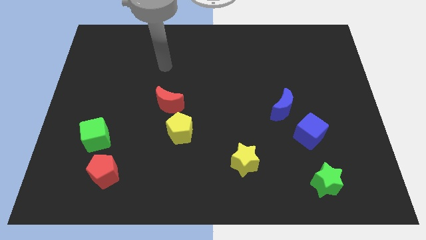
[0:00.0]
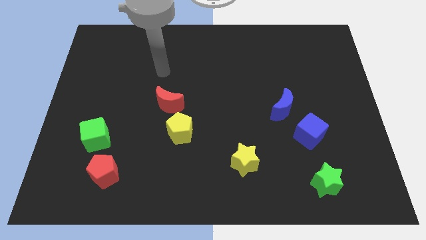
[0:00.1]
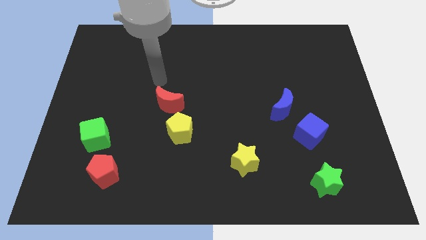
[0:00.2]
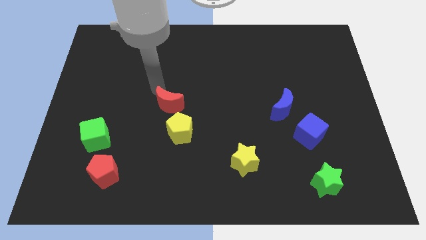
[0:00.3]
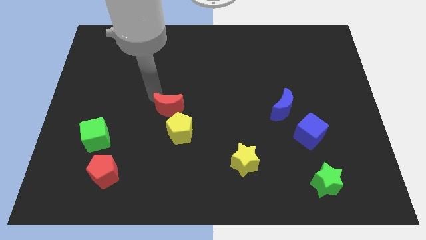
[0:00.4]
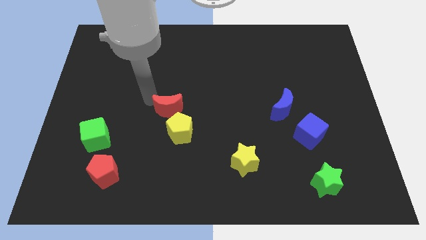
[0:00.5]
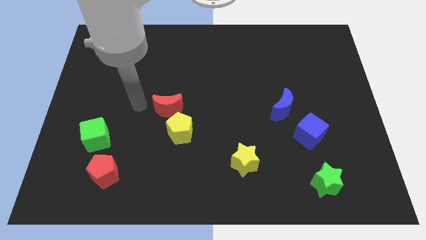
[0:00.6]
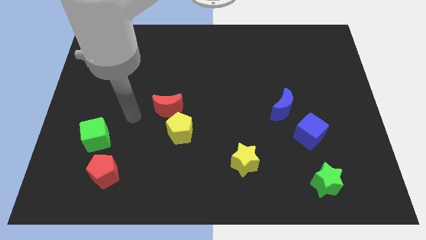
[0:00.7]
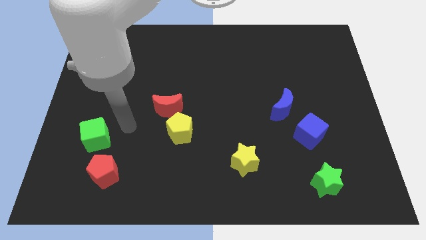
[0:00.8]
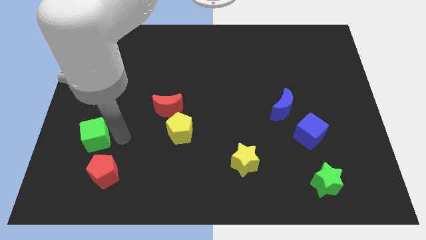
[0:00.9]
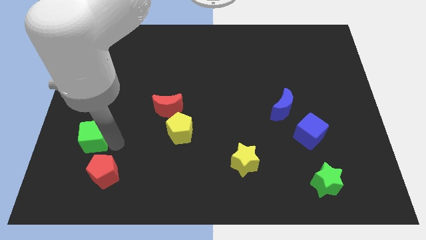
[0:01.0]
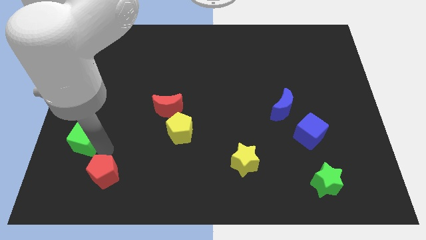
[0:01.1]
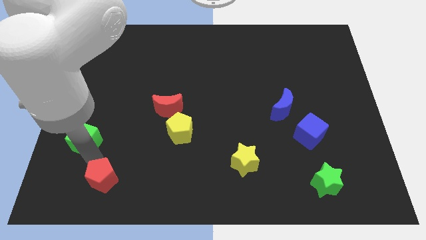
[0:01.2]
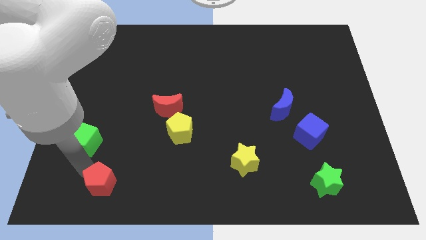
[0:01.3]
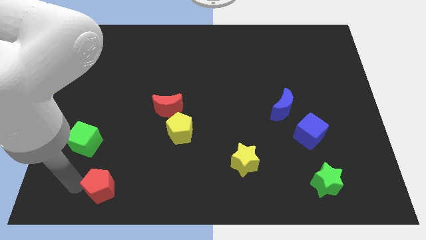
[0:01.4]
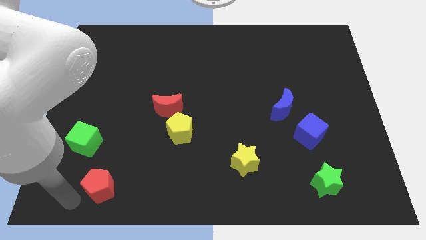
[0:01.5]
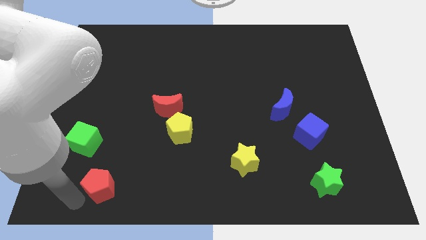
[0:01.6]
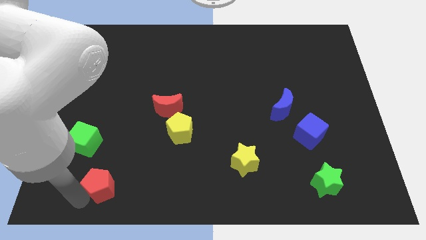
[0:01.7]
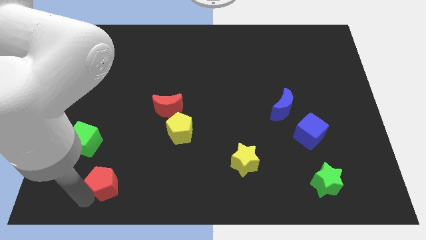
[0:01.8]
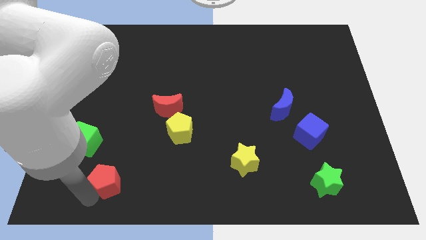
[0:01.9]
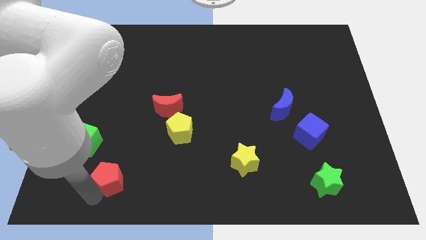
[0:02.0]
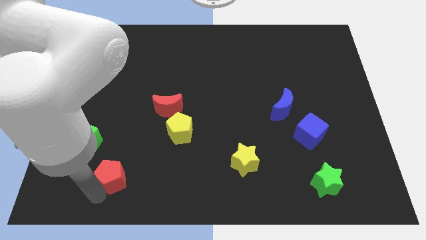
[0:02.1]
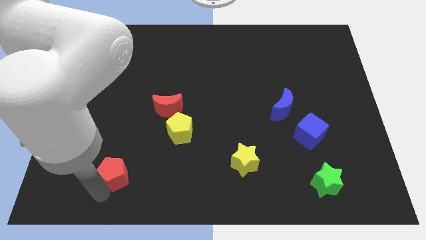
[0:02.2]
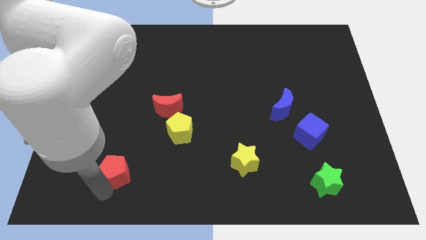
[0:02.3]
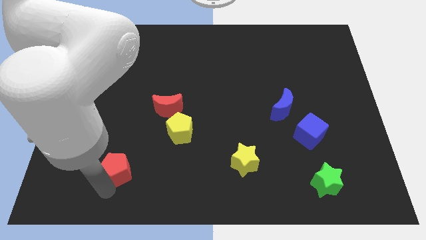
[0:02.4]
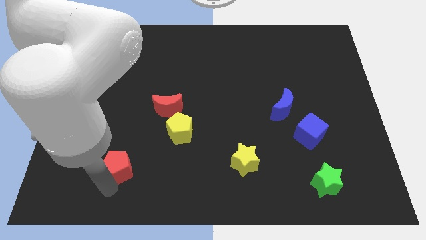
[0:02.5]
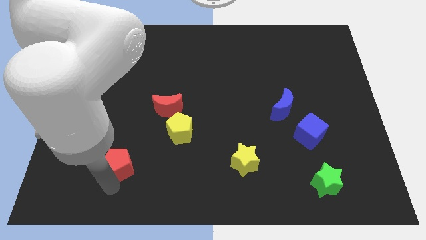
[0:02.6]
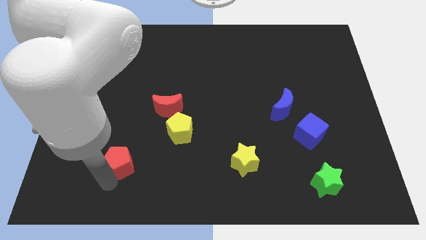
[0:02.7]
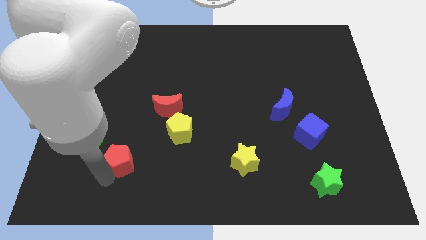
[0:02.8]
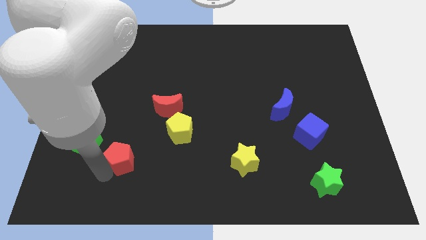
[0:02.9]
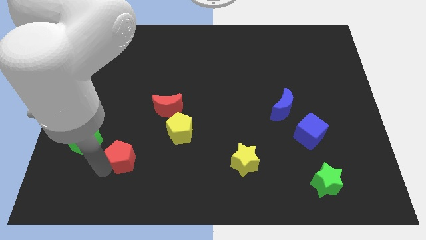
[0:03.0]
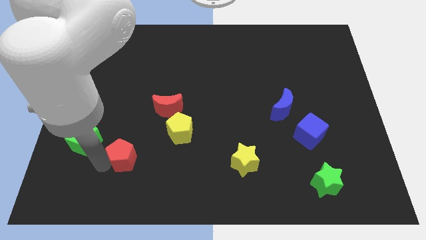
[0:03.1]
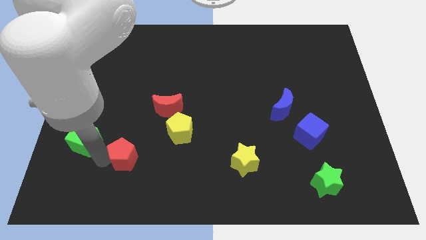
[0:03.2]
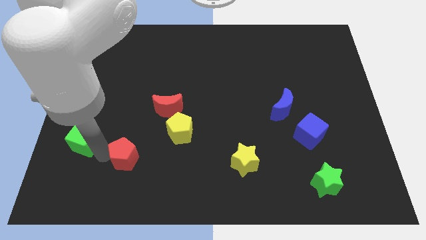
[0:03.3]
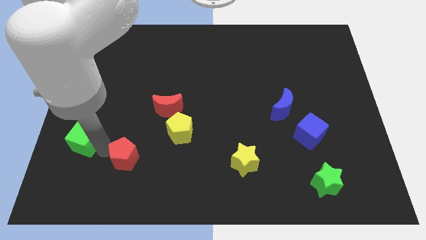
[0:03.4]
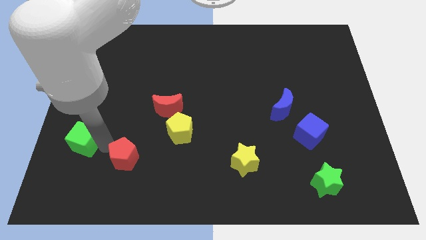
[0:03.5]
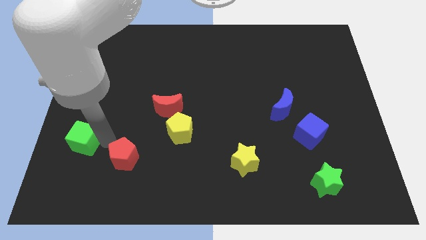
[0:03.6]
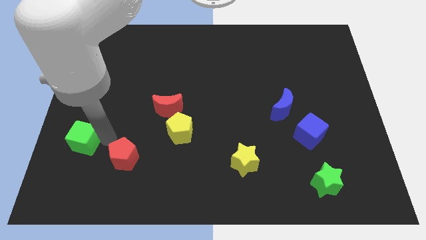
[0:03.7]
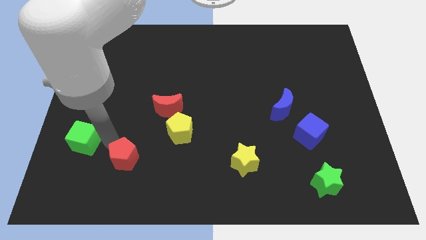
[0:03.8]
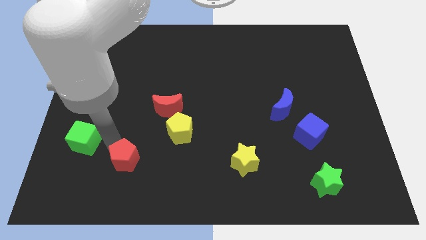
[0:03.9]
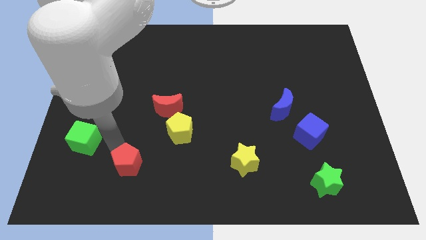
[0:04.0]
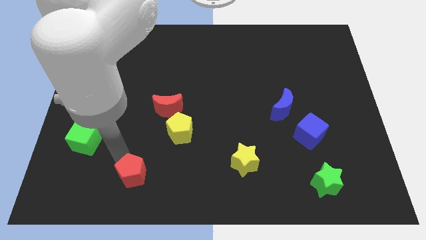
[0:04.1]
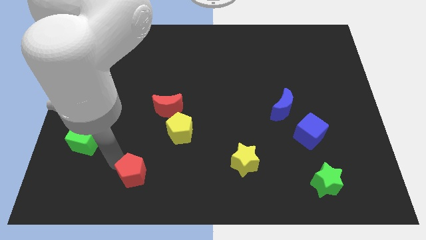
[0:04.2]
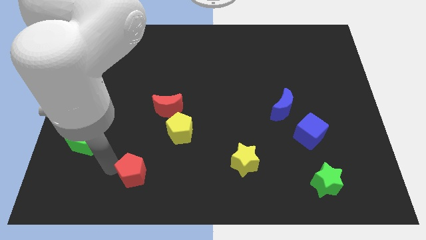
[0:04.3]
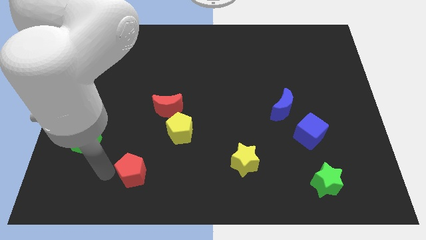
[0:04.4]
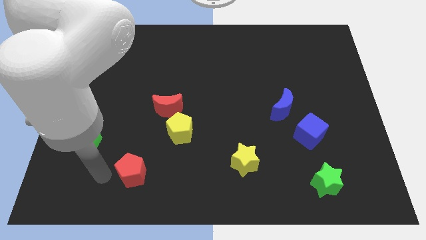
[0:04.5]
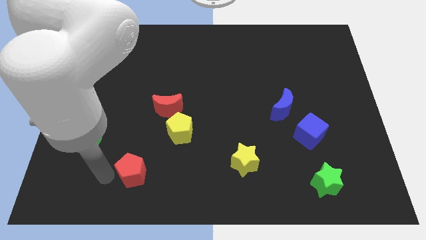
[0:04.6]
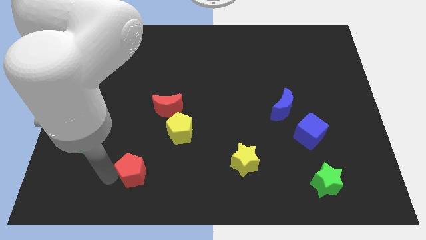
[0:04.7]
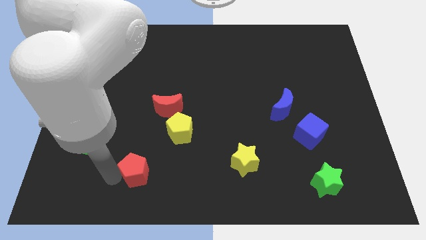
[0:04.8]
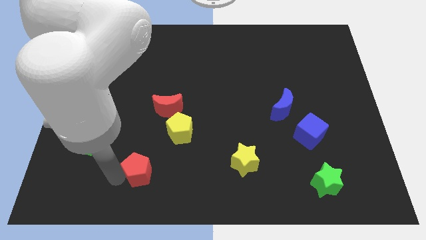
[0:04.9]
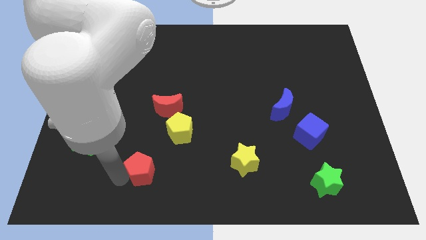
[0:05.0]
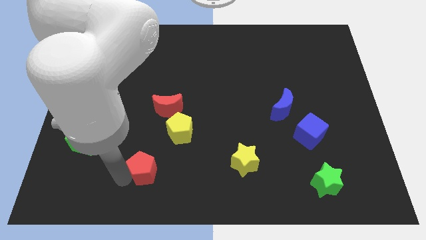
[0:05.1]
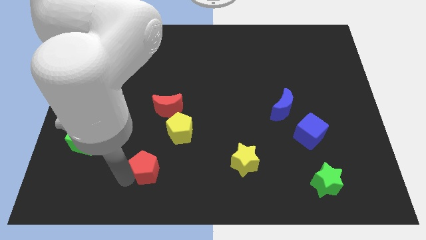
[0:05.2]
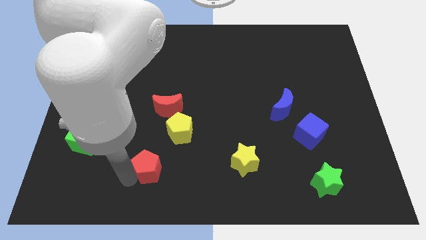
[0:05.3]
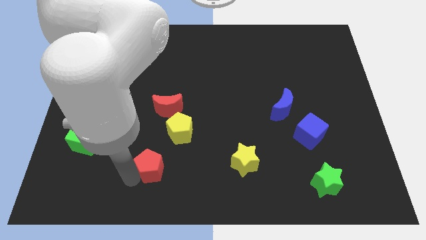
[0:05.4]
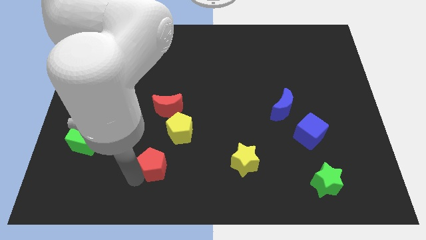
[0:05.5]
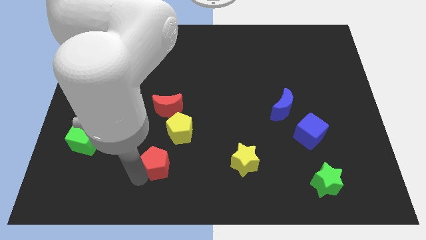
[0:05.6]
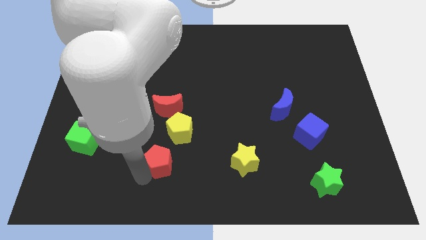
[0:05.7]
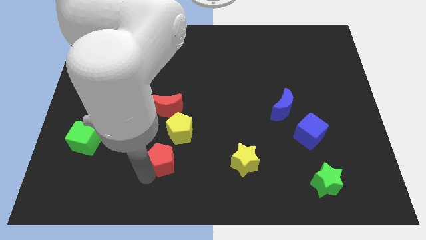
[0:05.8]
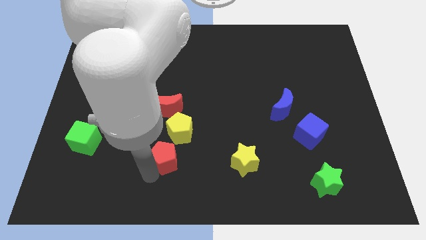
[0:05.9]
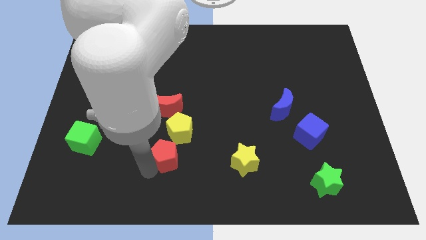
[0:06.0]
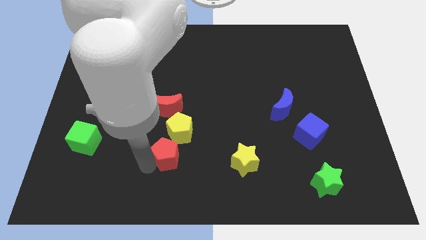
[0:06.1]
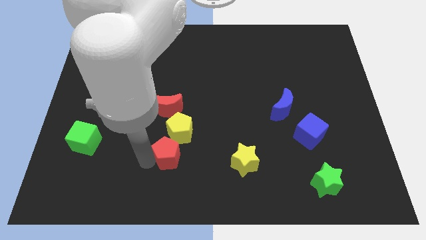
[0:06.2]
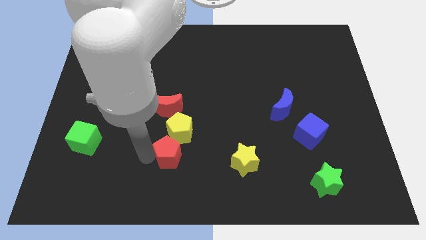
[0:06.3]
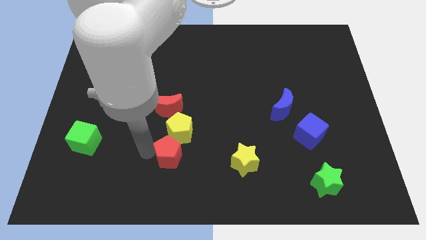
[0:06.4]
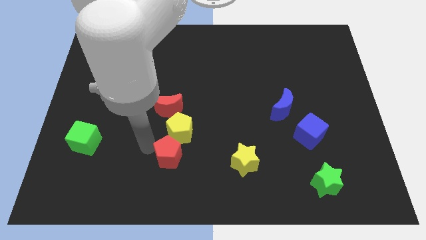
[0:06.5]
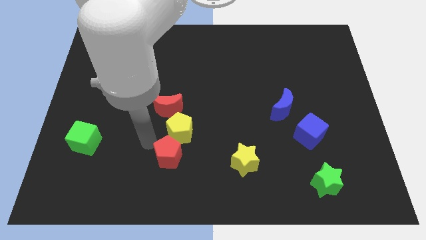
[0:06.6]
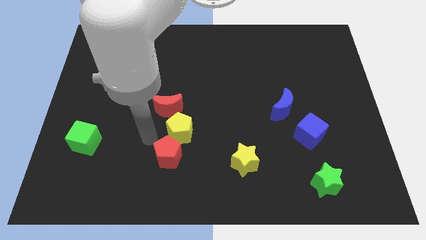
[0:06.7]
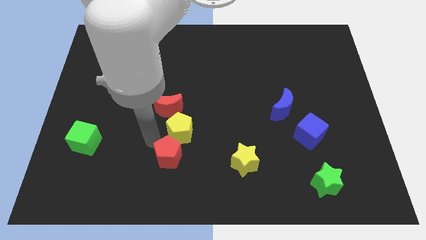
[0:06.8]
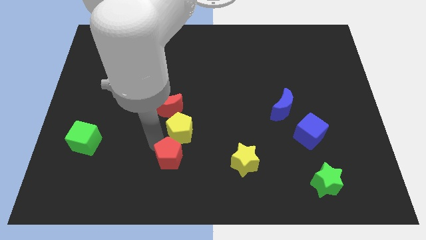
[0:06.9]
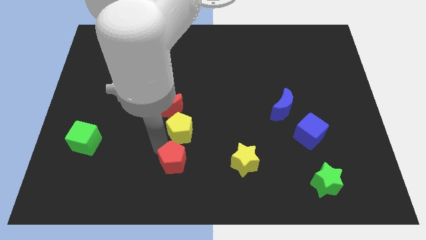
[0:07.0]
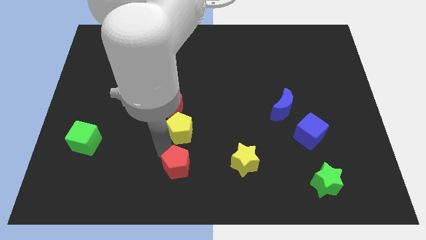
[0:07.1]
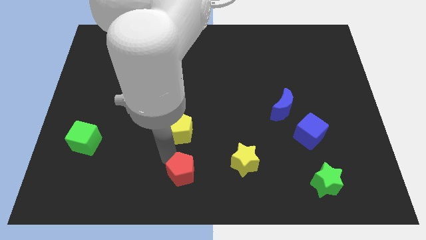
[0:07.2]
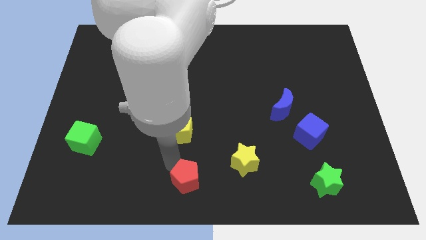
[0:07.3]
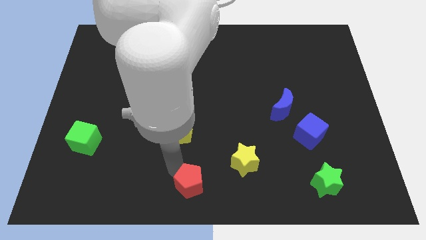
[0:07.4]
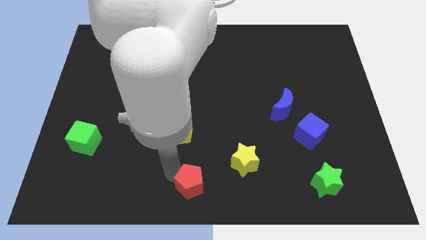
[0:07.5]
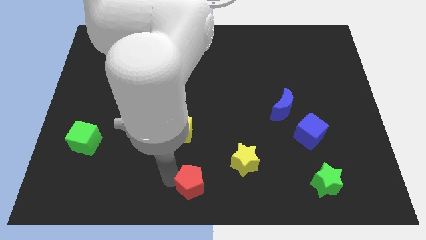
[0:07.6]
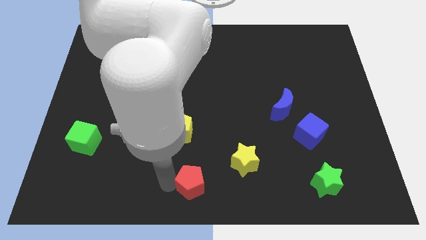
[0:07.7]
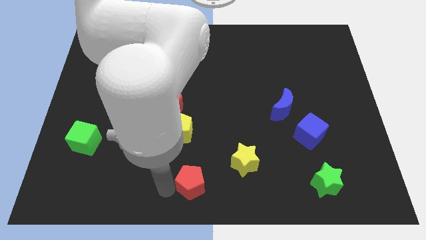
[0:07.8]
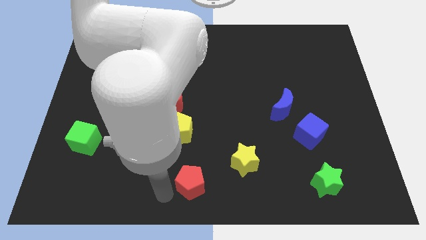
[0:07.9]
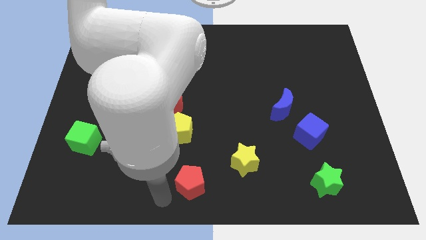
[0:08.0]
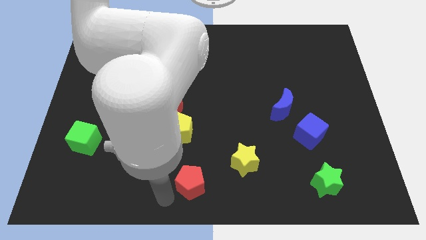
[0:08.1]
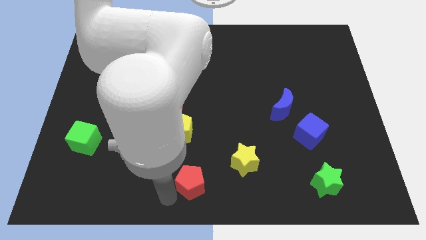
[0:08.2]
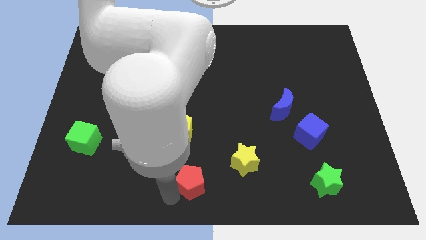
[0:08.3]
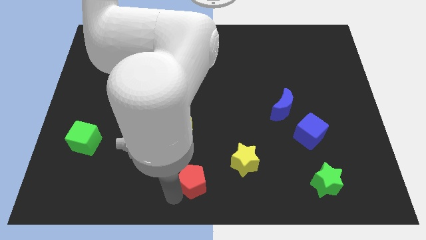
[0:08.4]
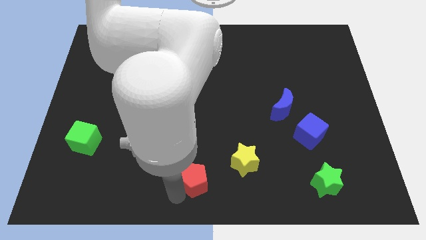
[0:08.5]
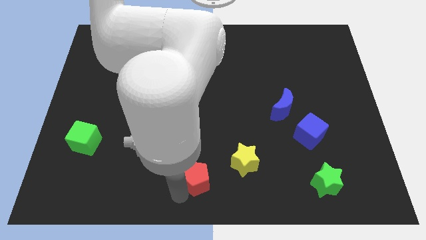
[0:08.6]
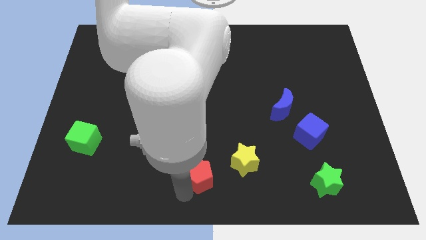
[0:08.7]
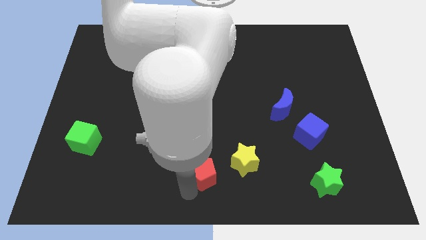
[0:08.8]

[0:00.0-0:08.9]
push the red pentagon to the right
